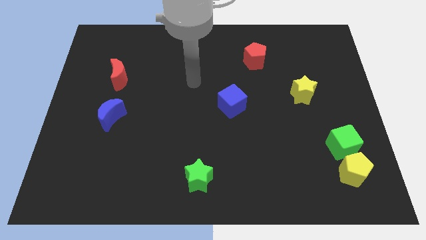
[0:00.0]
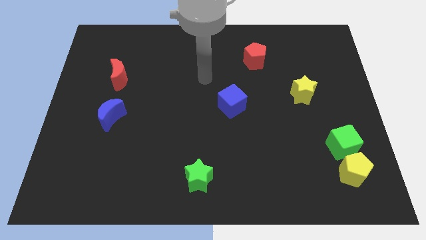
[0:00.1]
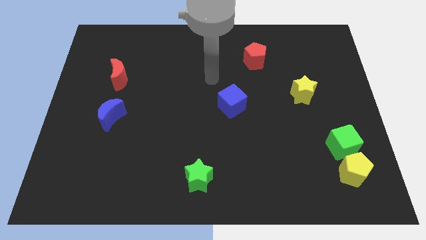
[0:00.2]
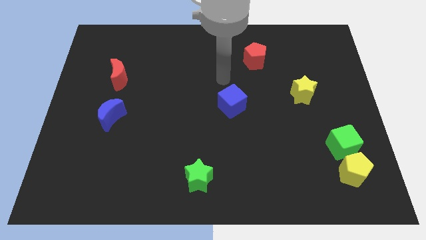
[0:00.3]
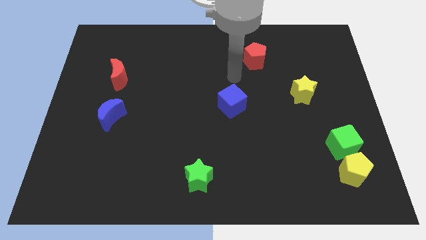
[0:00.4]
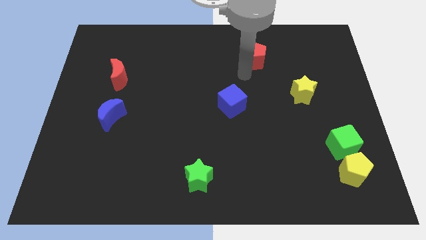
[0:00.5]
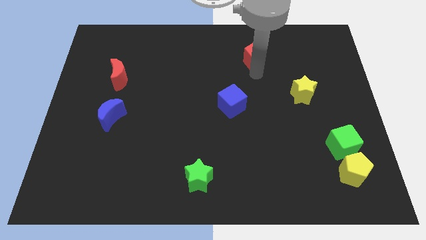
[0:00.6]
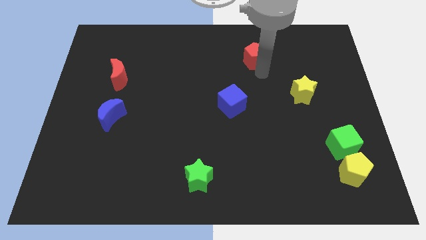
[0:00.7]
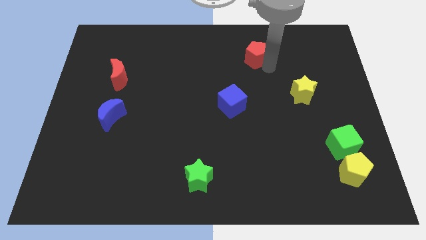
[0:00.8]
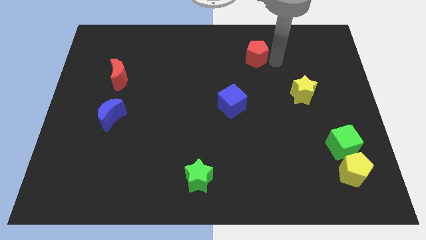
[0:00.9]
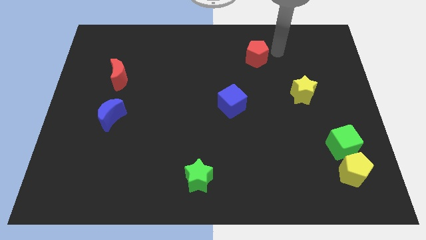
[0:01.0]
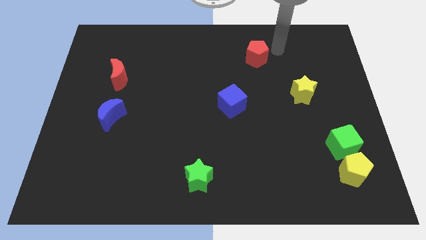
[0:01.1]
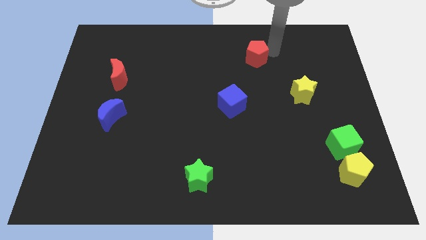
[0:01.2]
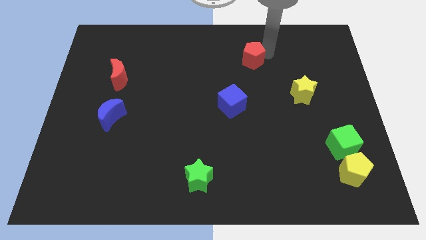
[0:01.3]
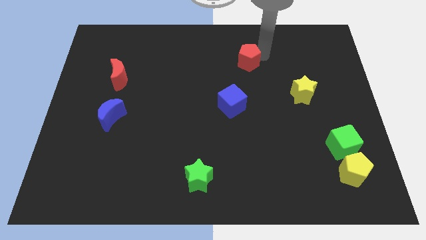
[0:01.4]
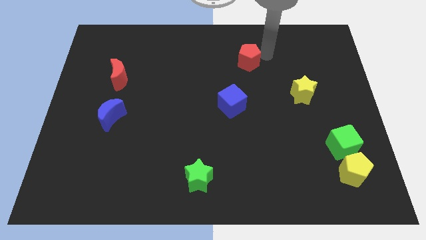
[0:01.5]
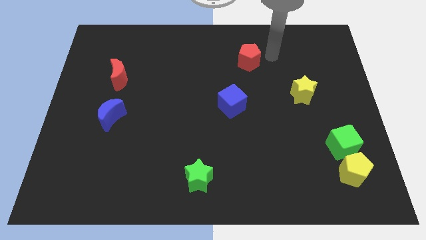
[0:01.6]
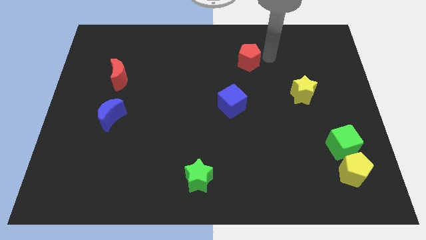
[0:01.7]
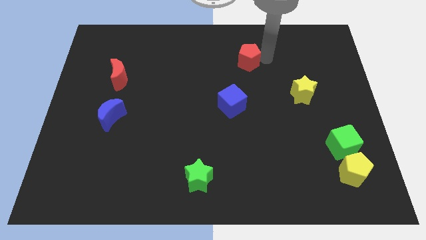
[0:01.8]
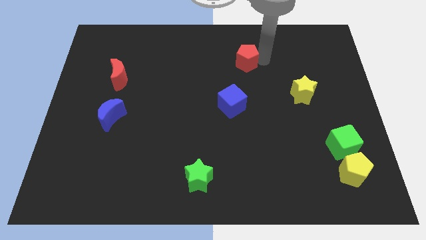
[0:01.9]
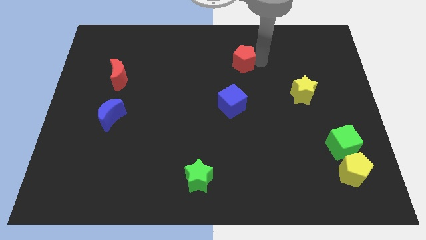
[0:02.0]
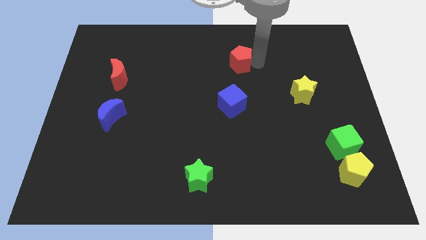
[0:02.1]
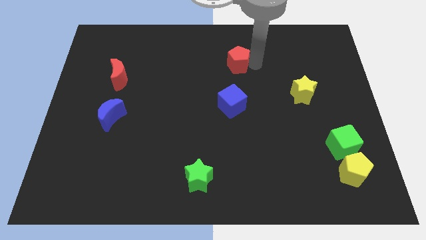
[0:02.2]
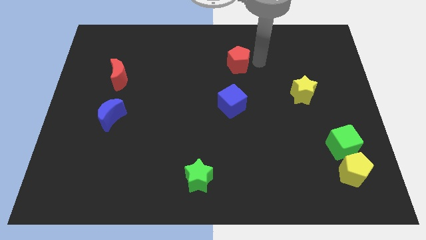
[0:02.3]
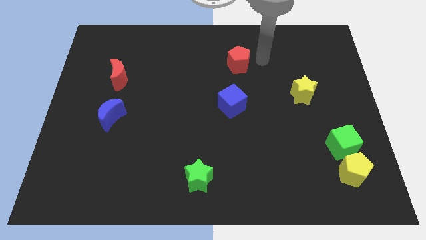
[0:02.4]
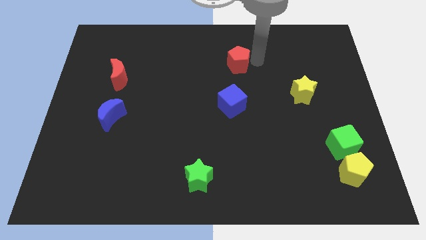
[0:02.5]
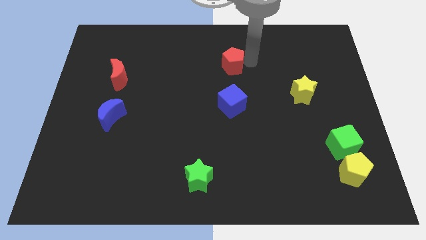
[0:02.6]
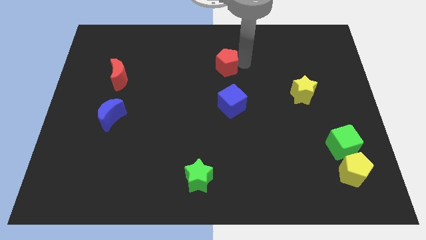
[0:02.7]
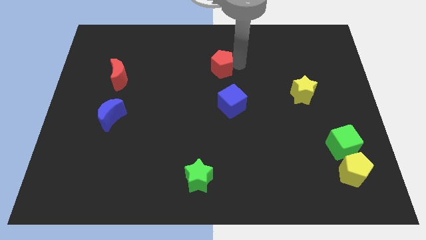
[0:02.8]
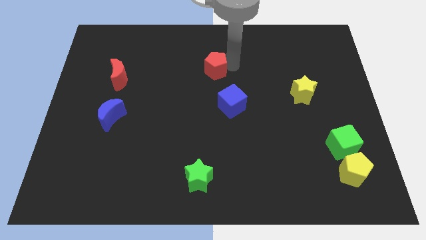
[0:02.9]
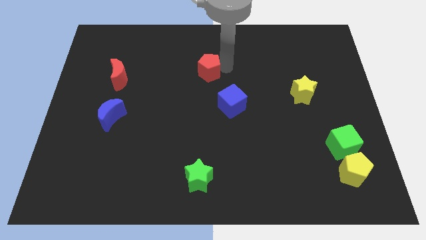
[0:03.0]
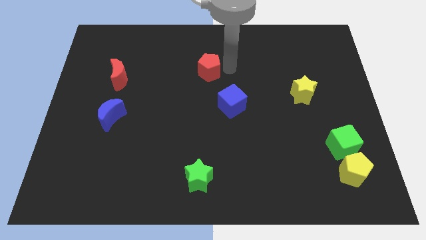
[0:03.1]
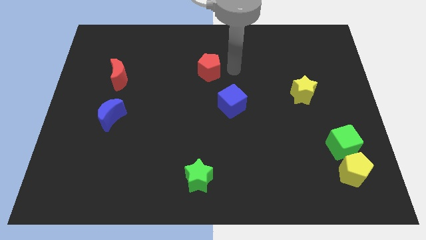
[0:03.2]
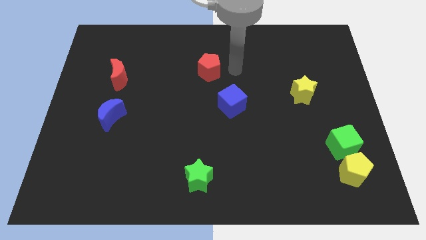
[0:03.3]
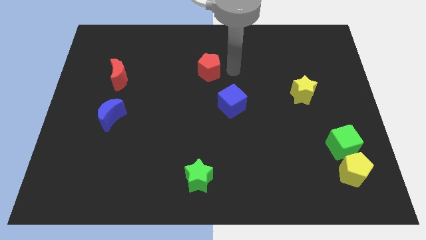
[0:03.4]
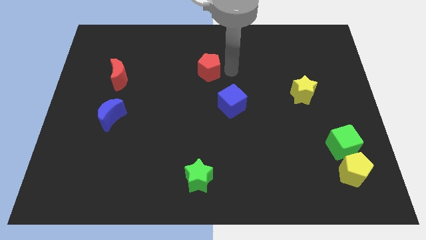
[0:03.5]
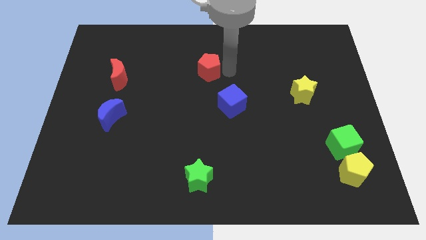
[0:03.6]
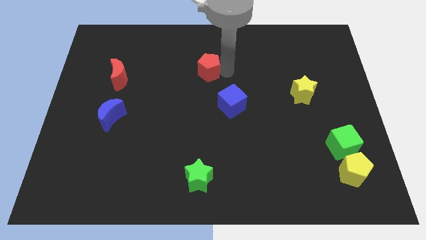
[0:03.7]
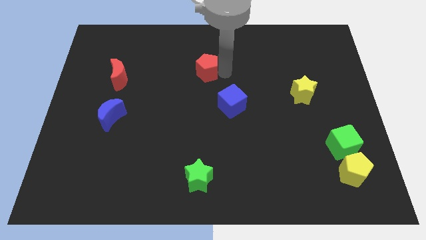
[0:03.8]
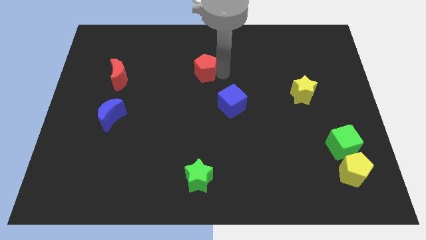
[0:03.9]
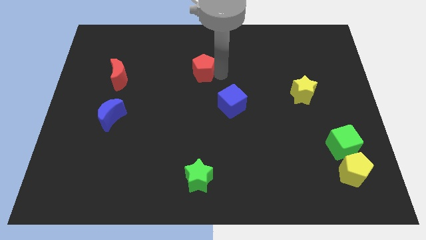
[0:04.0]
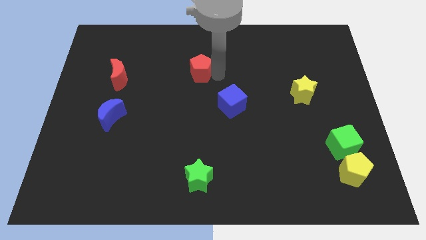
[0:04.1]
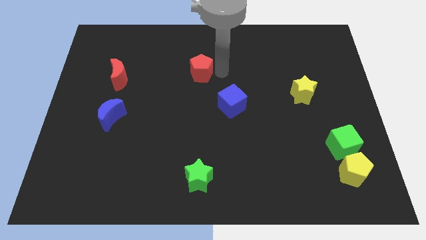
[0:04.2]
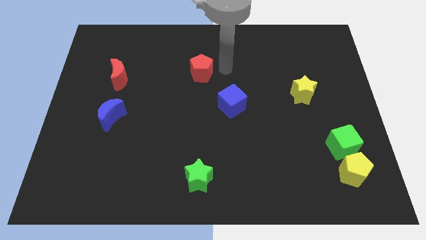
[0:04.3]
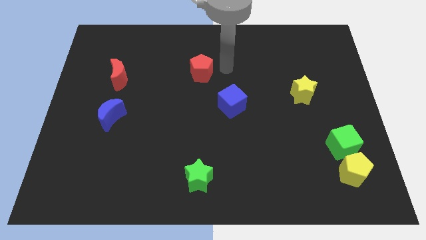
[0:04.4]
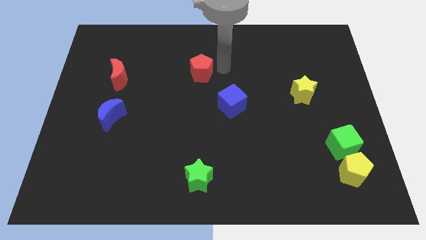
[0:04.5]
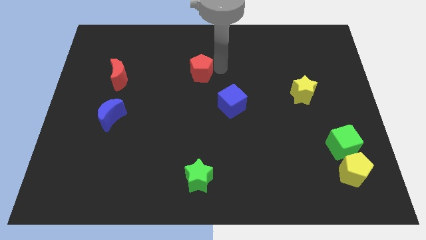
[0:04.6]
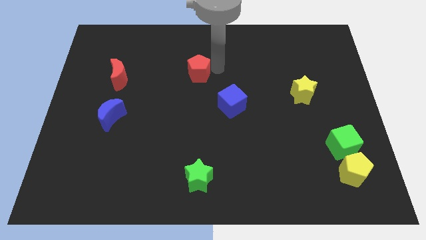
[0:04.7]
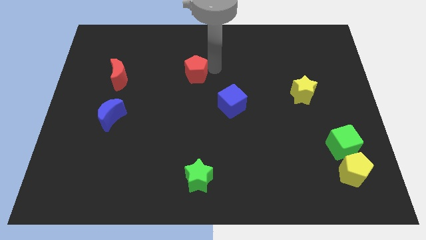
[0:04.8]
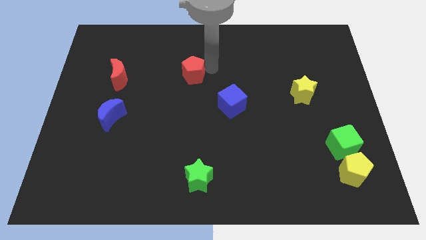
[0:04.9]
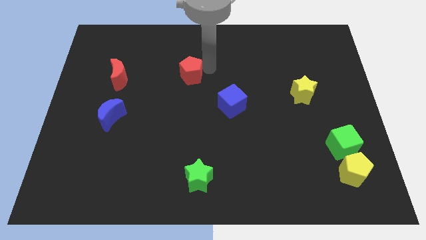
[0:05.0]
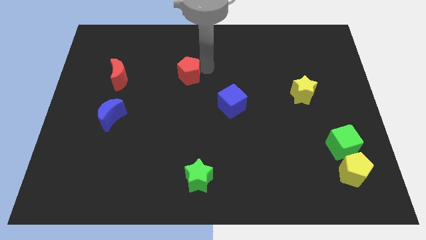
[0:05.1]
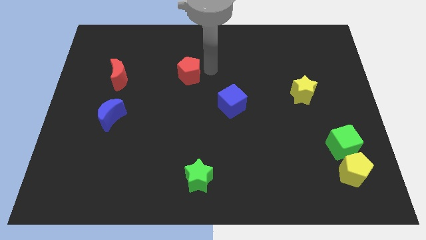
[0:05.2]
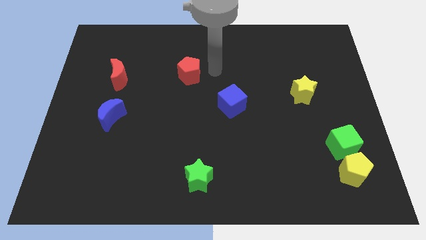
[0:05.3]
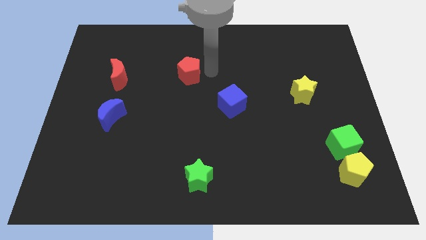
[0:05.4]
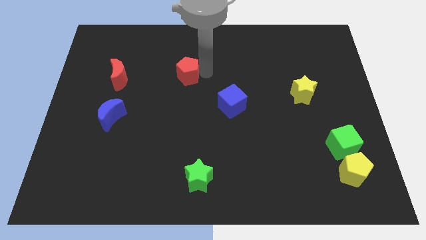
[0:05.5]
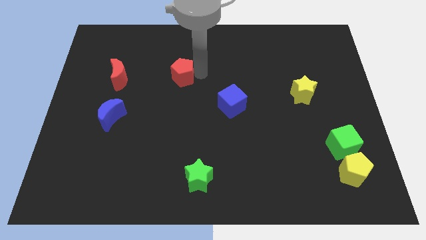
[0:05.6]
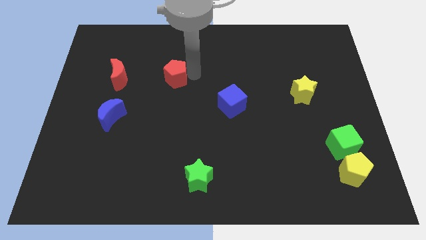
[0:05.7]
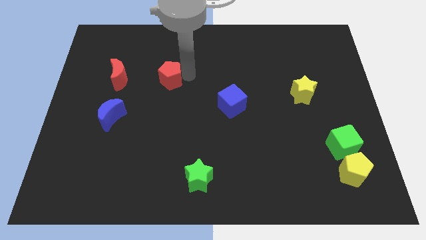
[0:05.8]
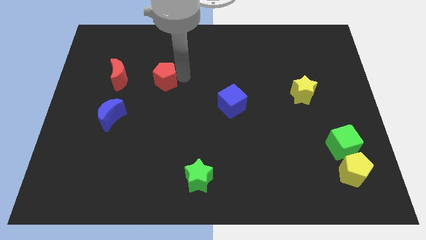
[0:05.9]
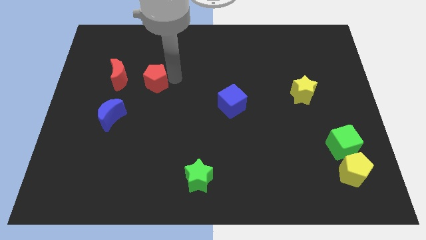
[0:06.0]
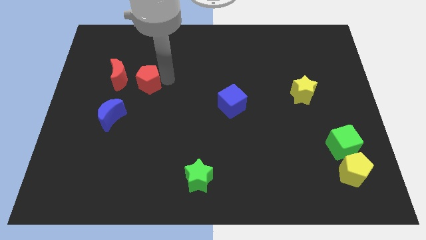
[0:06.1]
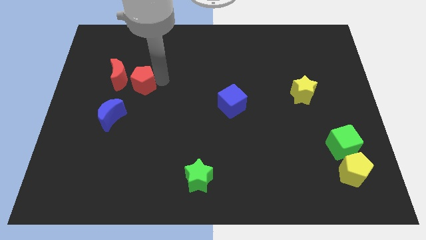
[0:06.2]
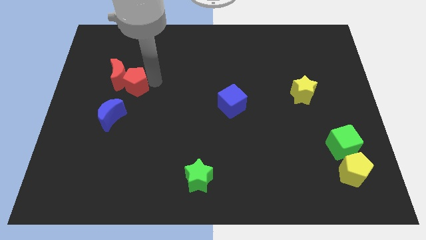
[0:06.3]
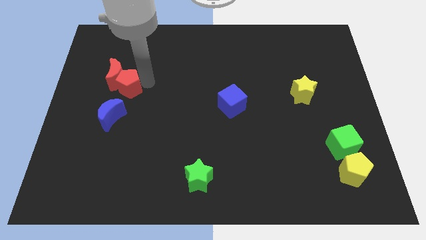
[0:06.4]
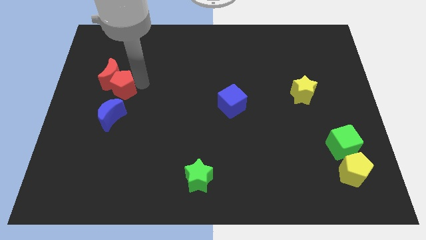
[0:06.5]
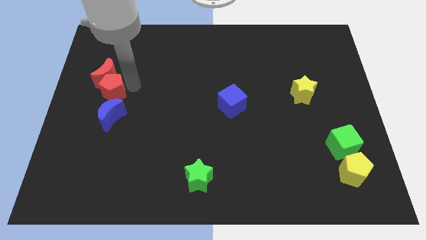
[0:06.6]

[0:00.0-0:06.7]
slide the red pentagon to the top left of the blue moon
